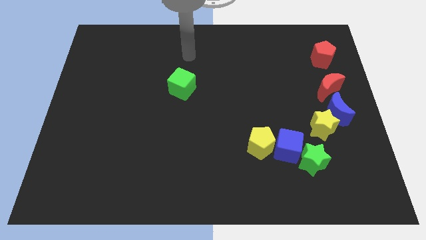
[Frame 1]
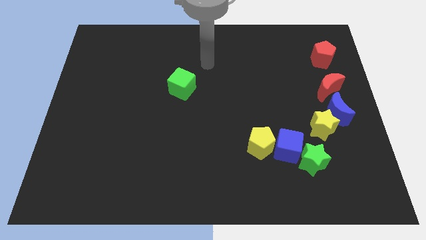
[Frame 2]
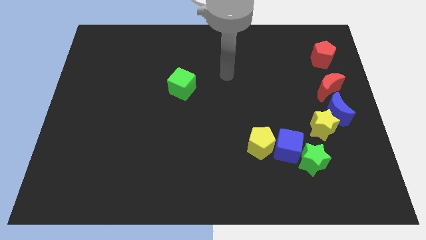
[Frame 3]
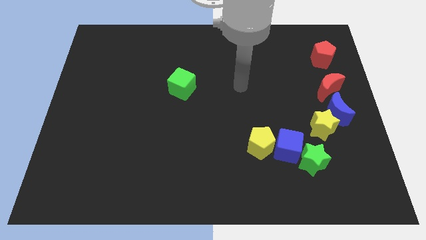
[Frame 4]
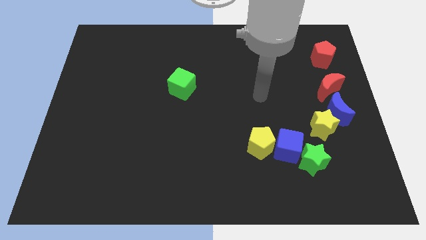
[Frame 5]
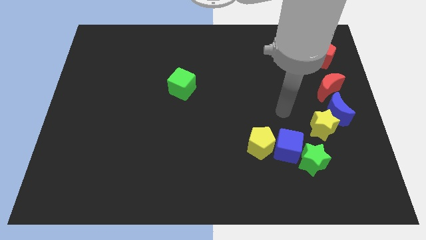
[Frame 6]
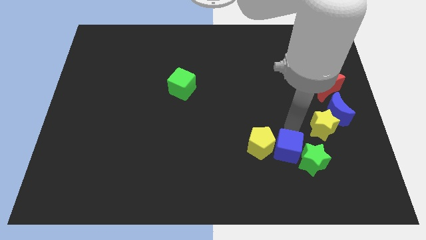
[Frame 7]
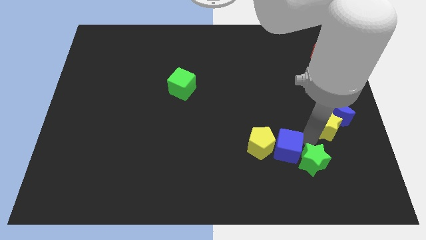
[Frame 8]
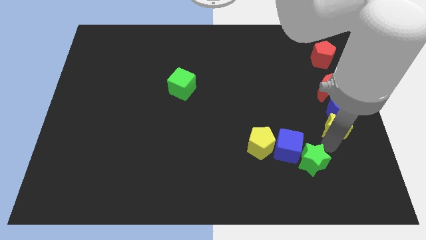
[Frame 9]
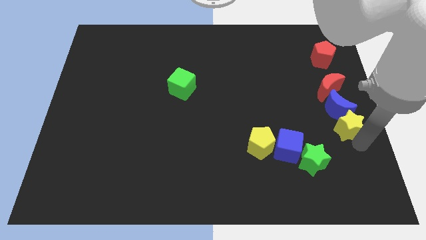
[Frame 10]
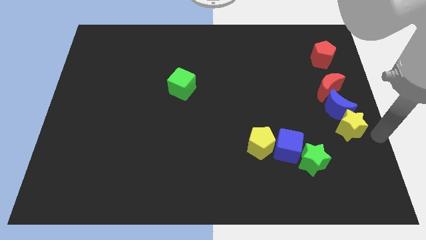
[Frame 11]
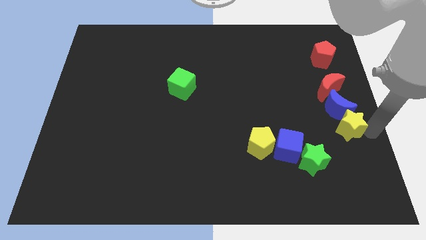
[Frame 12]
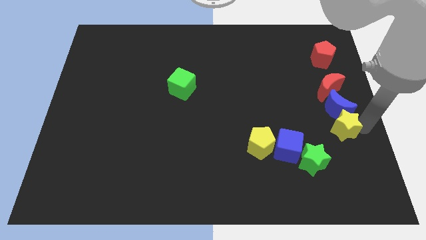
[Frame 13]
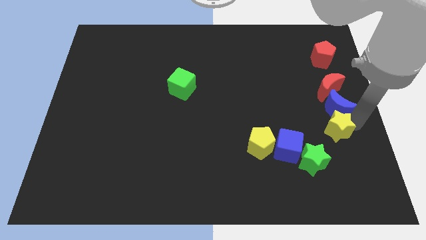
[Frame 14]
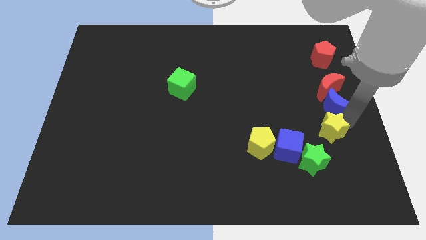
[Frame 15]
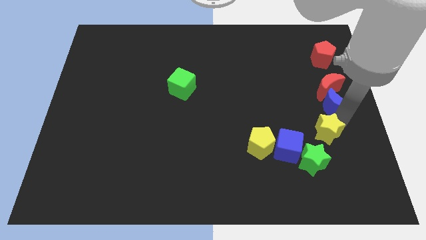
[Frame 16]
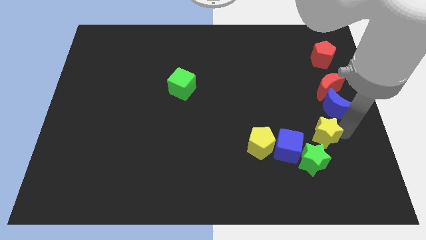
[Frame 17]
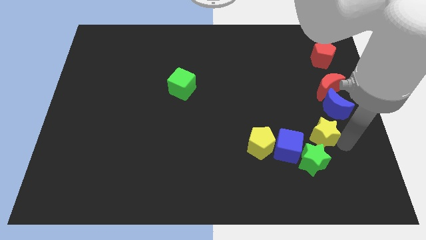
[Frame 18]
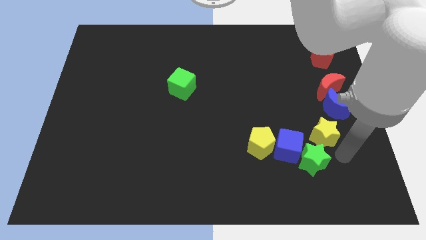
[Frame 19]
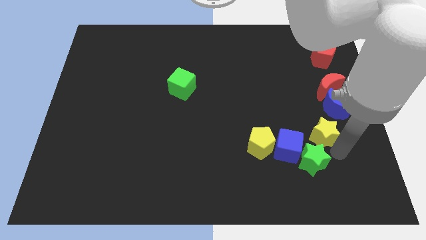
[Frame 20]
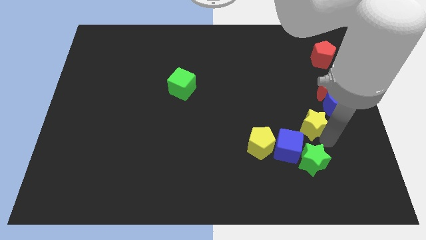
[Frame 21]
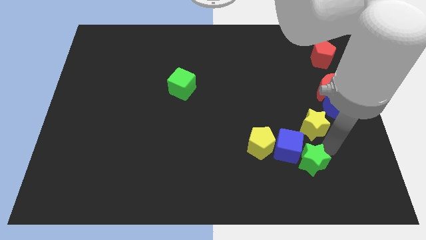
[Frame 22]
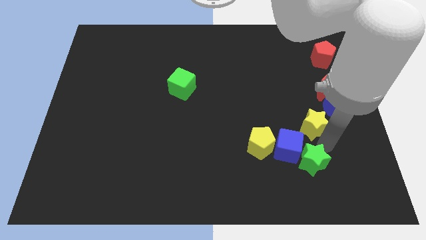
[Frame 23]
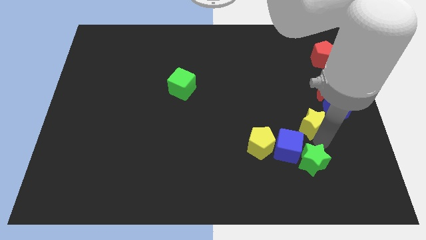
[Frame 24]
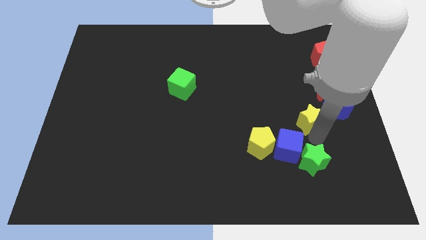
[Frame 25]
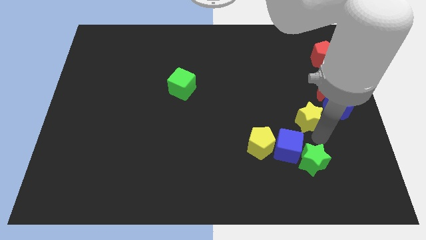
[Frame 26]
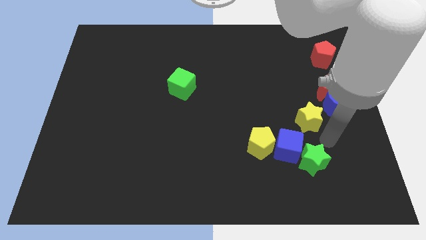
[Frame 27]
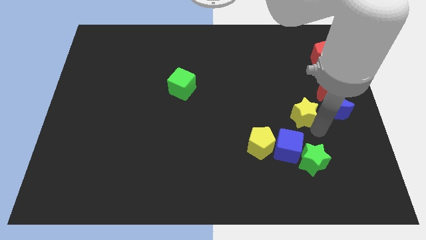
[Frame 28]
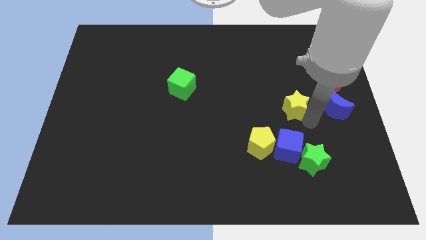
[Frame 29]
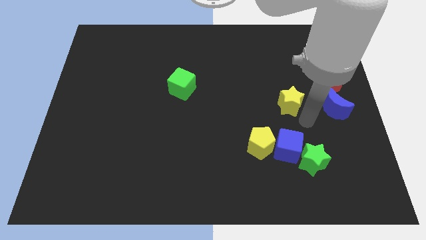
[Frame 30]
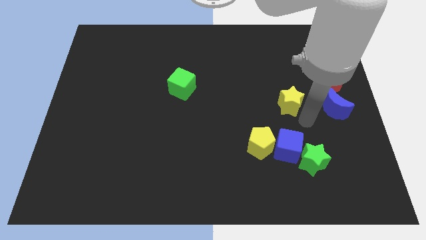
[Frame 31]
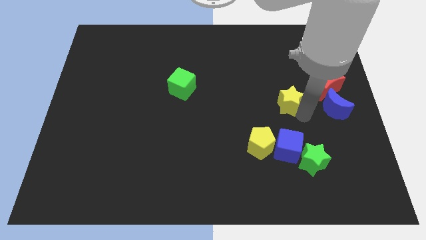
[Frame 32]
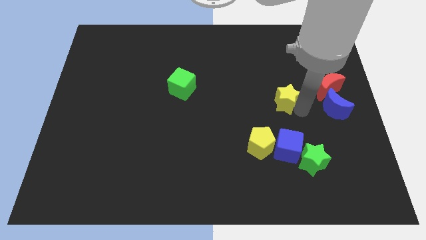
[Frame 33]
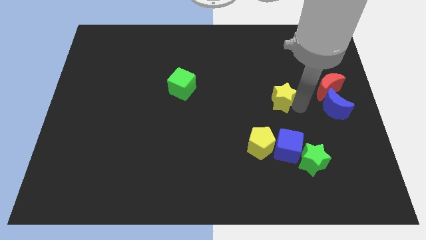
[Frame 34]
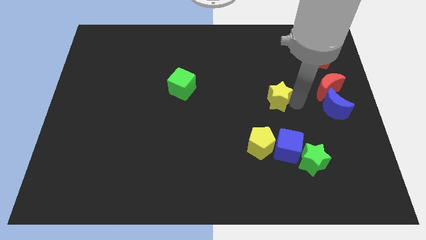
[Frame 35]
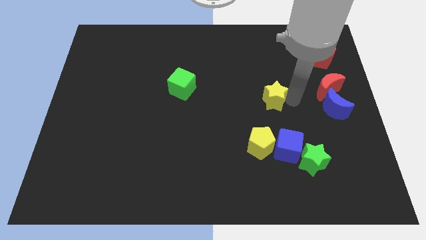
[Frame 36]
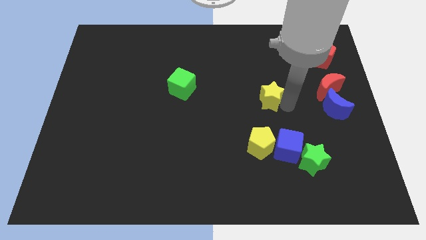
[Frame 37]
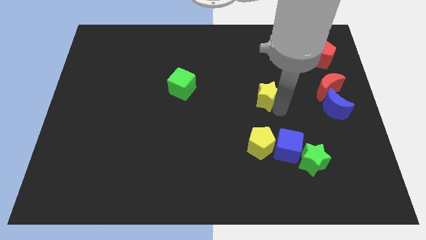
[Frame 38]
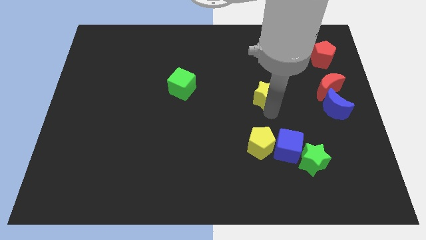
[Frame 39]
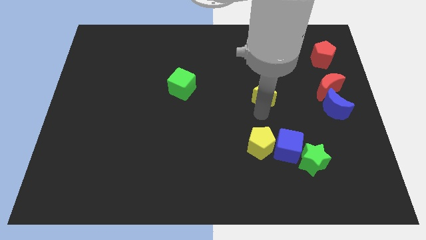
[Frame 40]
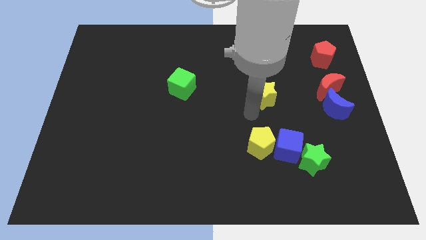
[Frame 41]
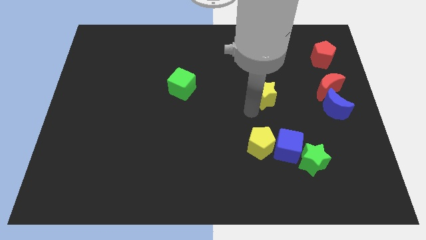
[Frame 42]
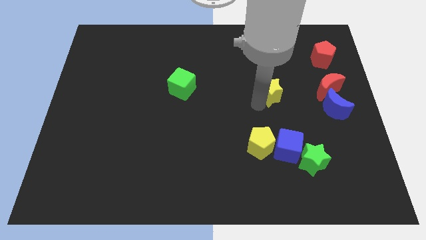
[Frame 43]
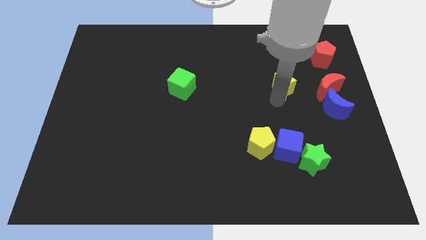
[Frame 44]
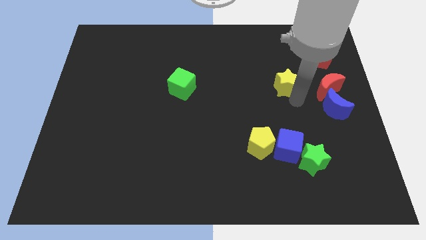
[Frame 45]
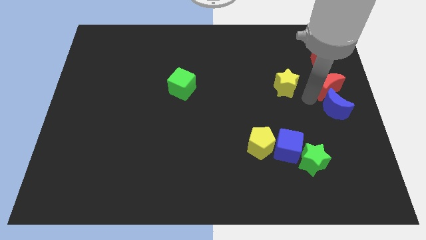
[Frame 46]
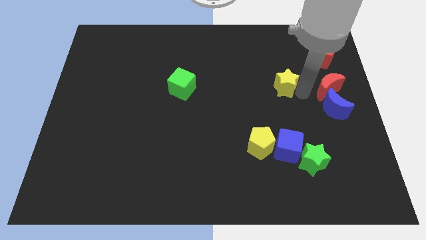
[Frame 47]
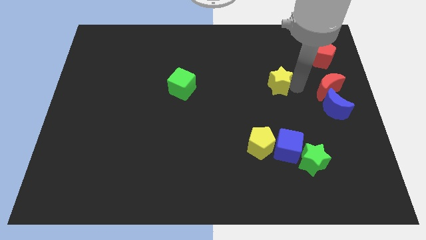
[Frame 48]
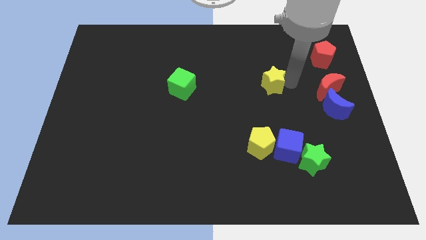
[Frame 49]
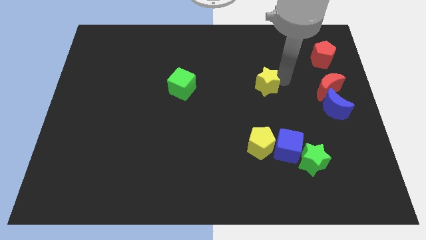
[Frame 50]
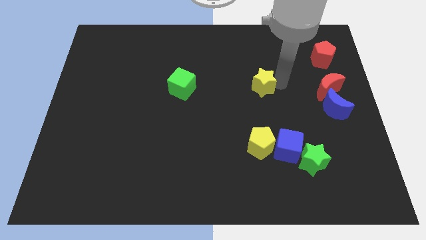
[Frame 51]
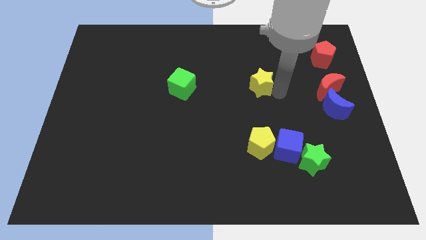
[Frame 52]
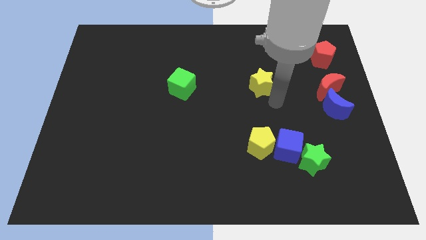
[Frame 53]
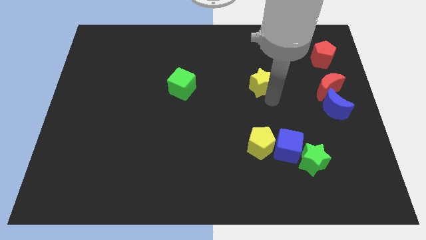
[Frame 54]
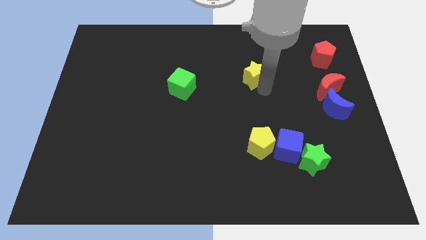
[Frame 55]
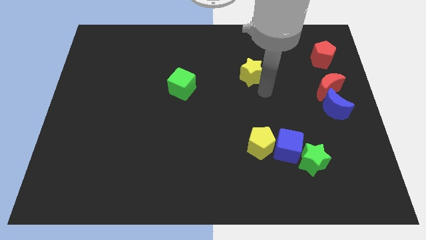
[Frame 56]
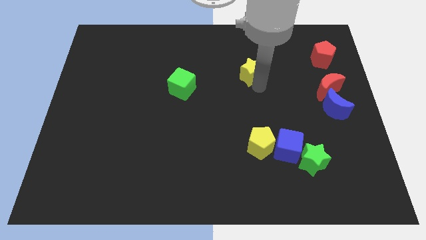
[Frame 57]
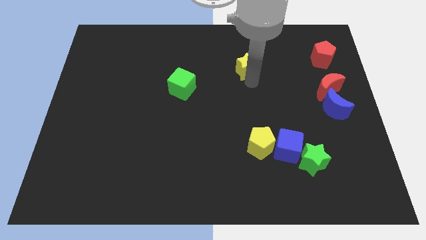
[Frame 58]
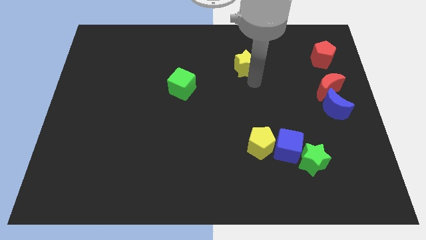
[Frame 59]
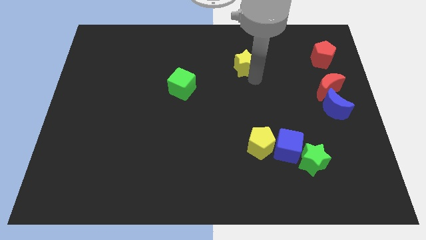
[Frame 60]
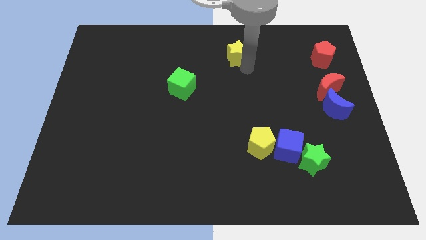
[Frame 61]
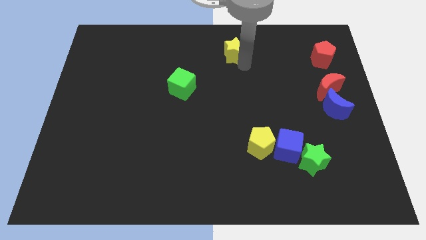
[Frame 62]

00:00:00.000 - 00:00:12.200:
put the yellow star to the top

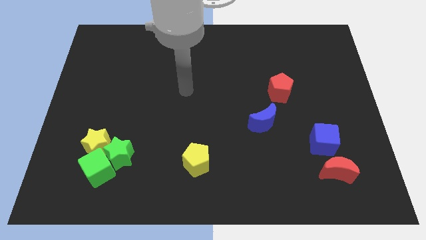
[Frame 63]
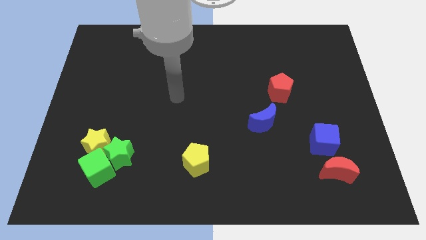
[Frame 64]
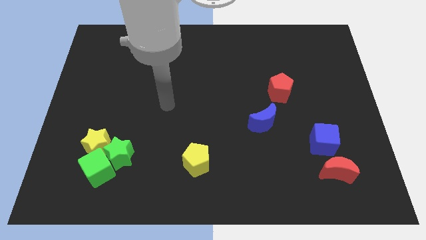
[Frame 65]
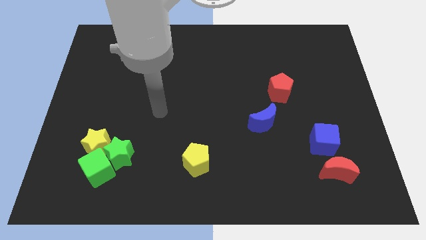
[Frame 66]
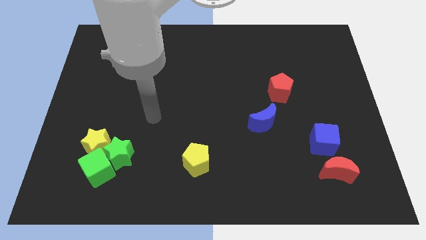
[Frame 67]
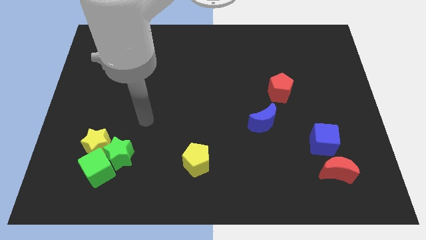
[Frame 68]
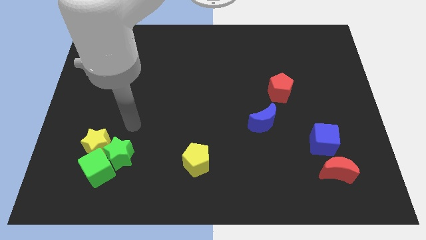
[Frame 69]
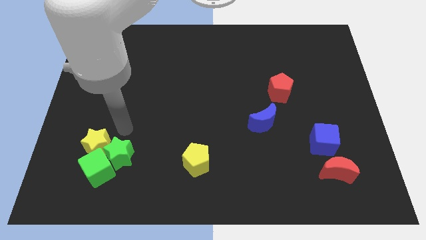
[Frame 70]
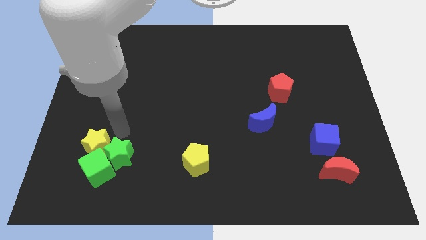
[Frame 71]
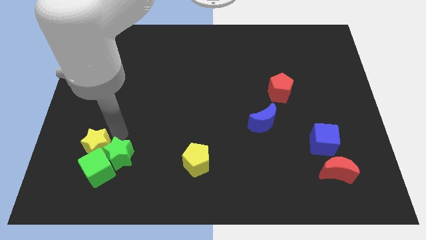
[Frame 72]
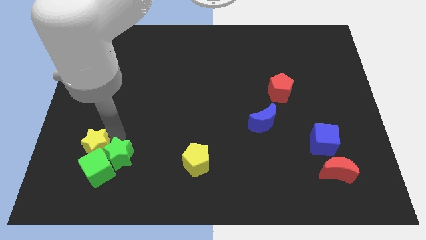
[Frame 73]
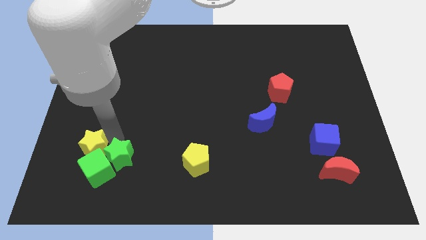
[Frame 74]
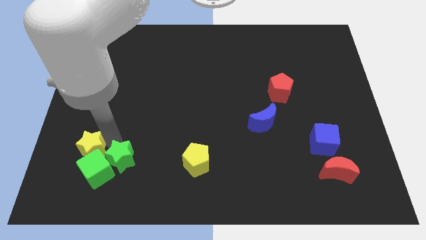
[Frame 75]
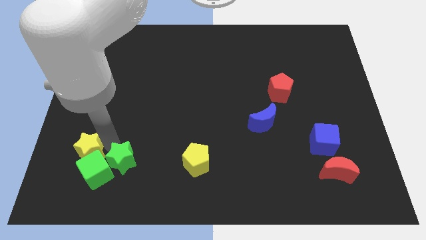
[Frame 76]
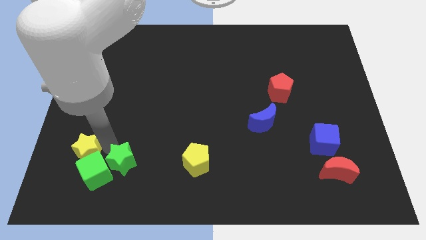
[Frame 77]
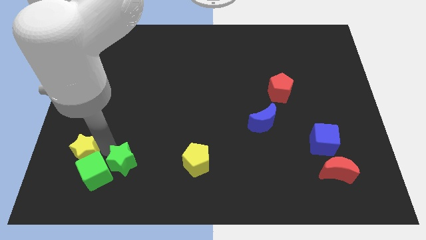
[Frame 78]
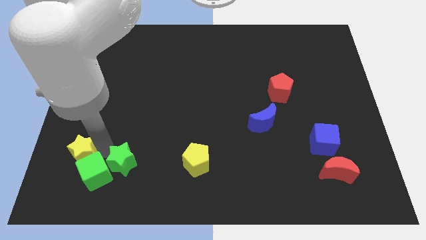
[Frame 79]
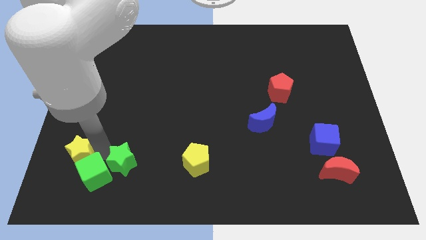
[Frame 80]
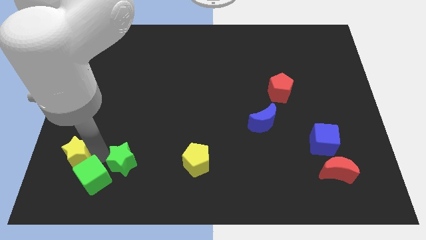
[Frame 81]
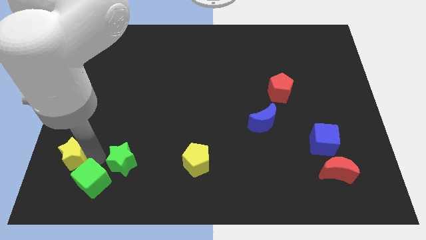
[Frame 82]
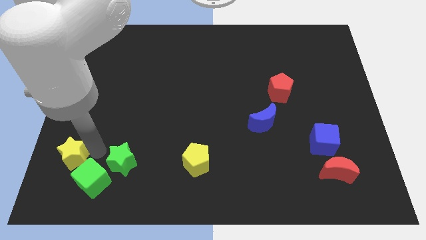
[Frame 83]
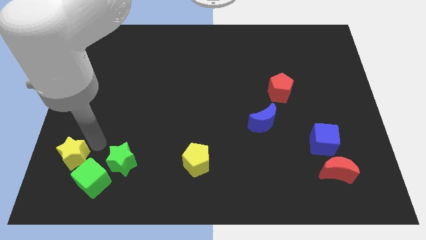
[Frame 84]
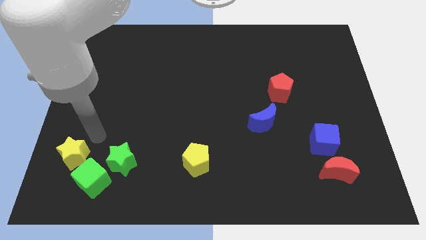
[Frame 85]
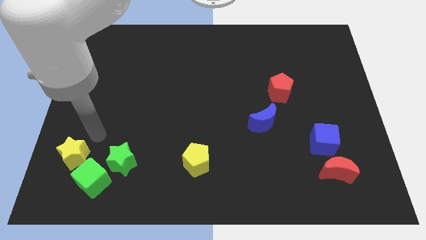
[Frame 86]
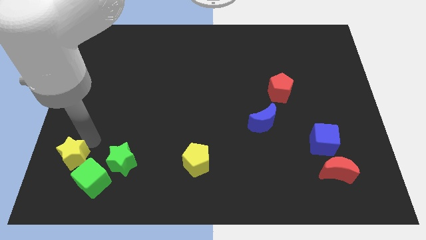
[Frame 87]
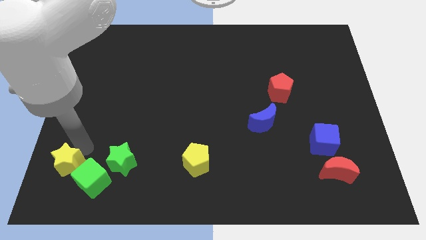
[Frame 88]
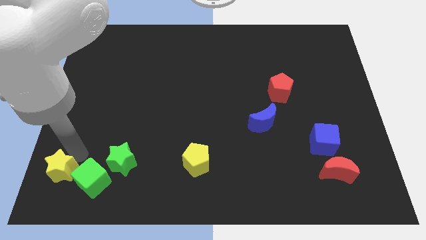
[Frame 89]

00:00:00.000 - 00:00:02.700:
slide the yellow star to the bottom left of the board
